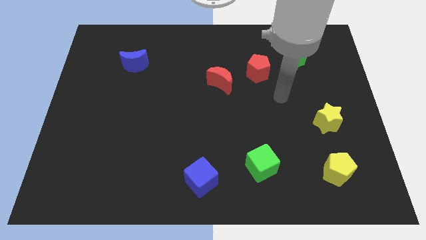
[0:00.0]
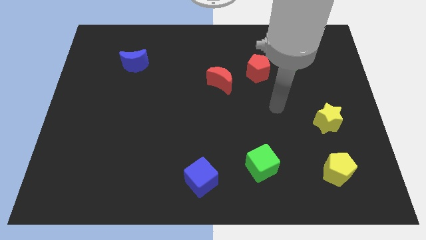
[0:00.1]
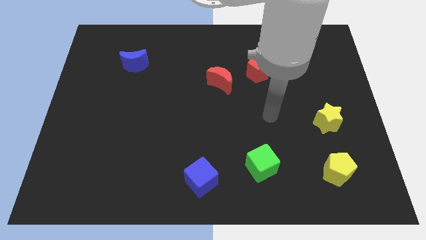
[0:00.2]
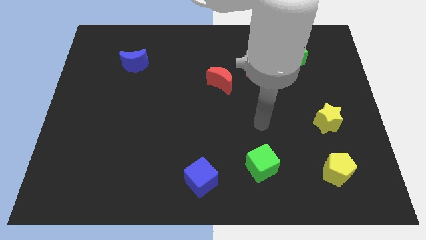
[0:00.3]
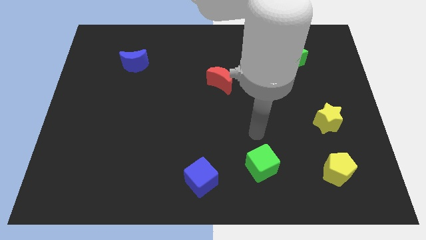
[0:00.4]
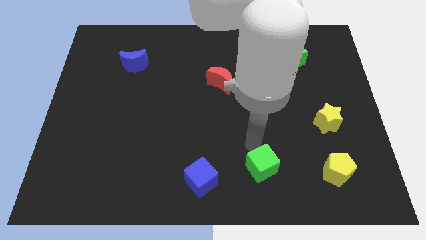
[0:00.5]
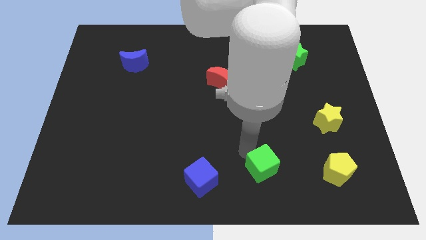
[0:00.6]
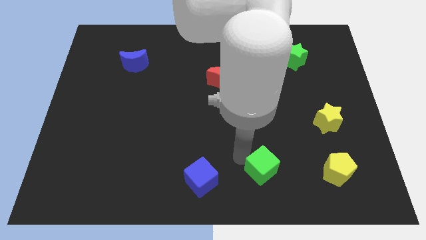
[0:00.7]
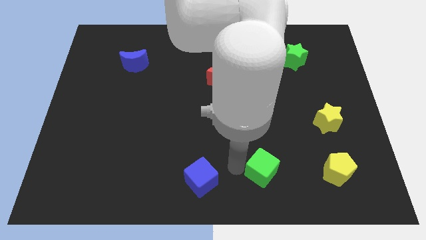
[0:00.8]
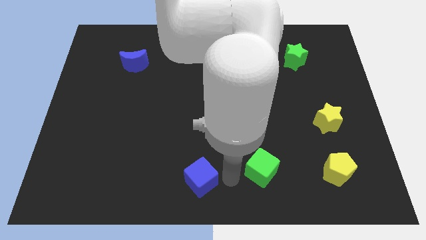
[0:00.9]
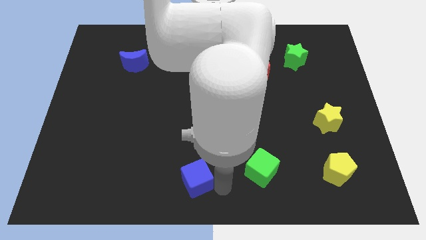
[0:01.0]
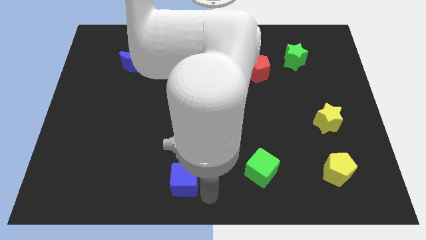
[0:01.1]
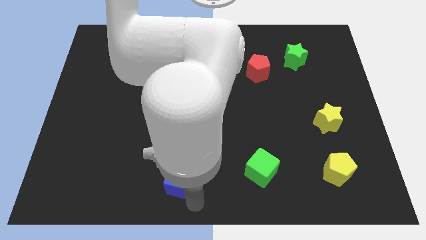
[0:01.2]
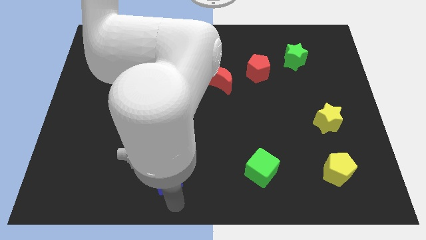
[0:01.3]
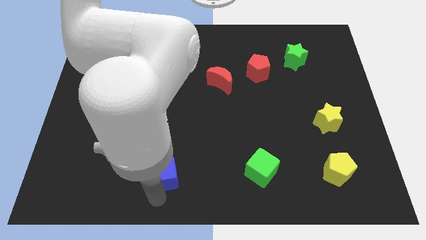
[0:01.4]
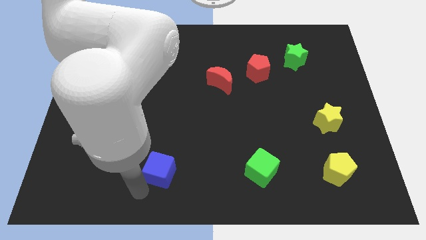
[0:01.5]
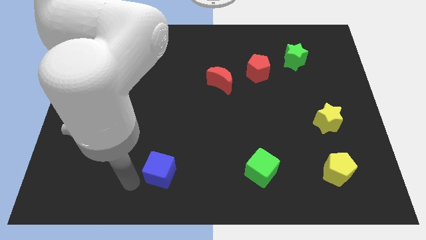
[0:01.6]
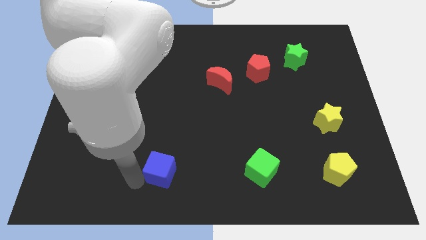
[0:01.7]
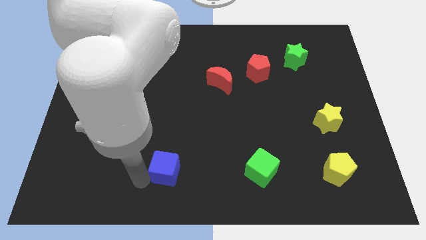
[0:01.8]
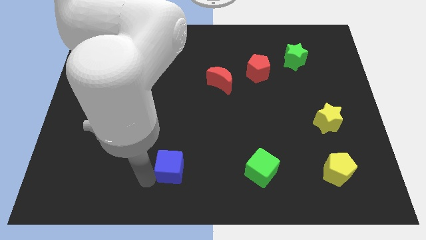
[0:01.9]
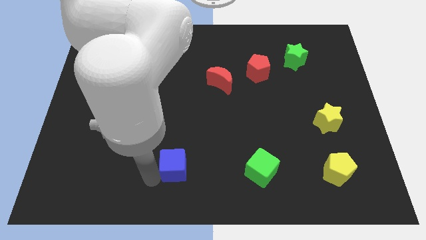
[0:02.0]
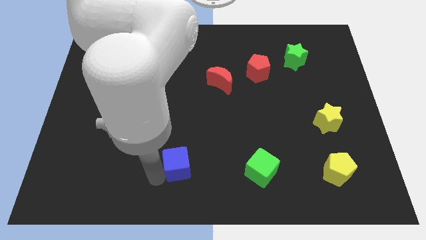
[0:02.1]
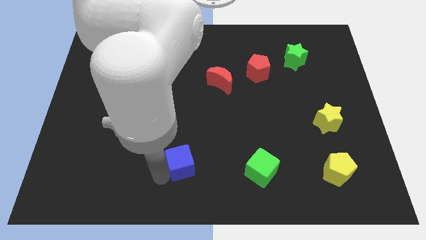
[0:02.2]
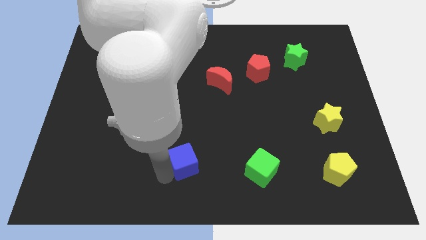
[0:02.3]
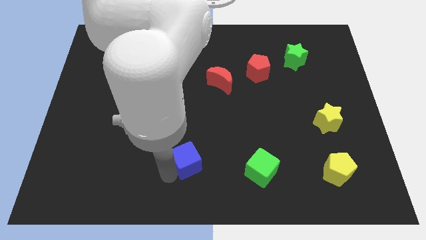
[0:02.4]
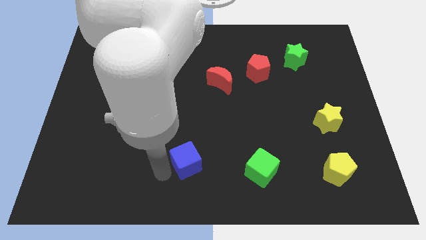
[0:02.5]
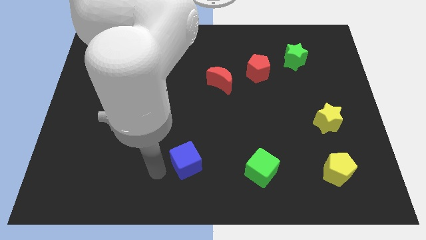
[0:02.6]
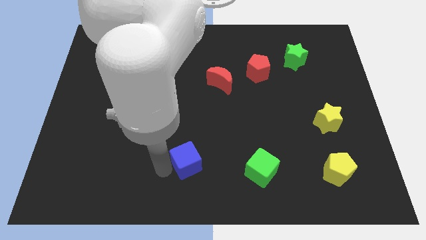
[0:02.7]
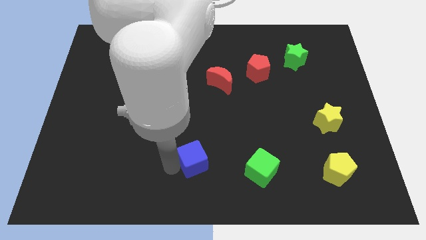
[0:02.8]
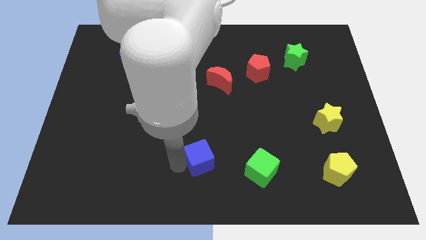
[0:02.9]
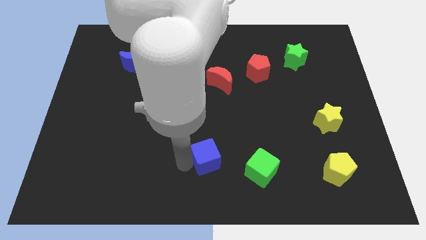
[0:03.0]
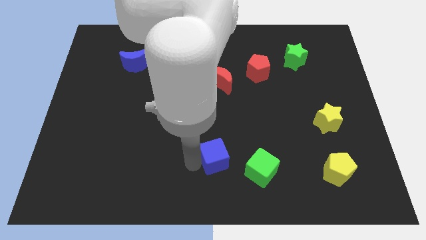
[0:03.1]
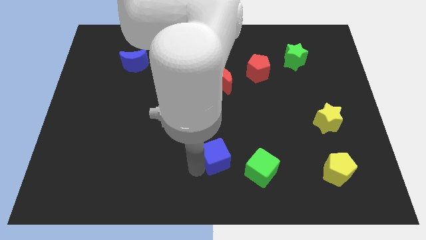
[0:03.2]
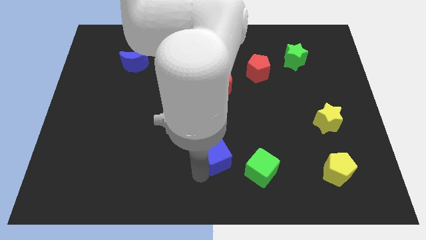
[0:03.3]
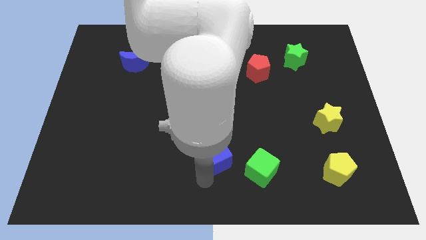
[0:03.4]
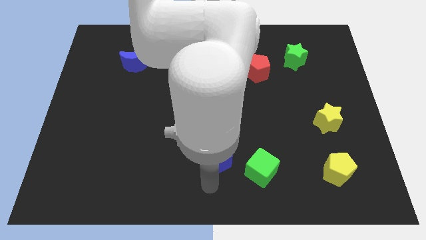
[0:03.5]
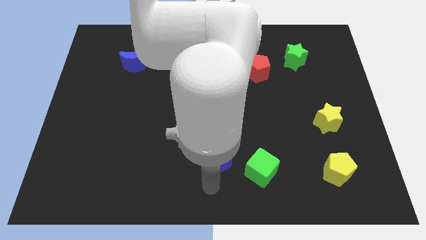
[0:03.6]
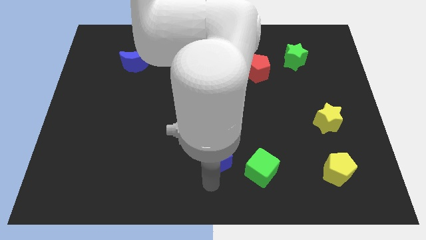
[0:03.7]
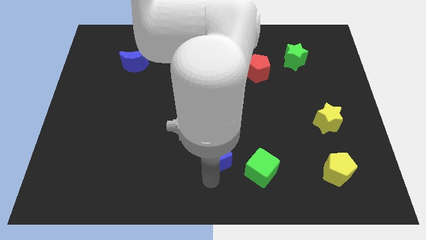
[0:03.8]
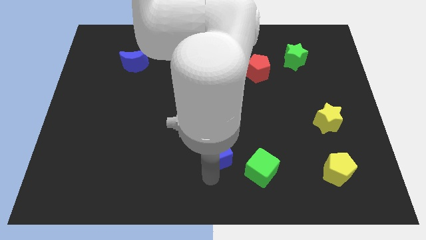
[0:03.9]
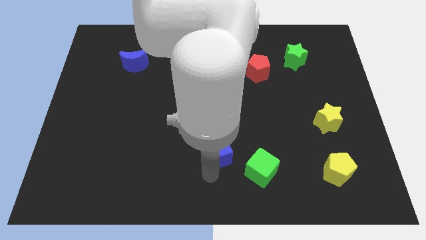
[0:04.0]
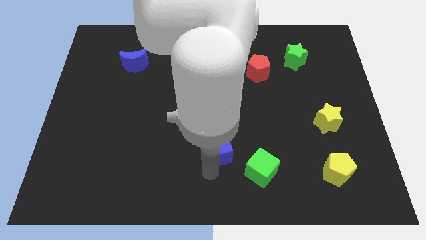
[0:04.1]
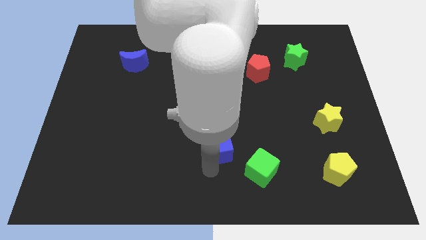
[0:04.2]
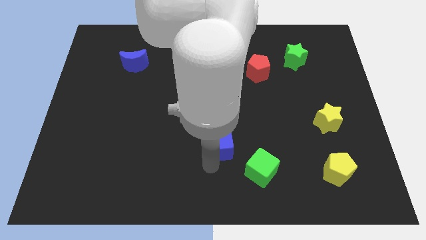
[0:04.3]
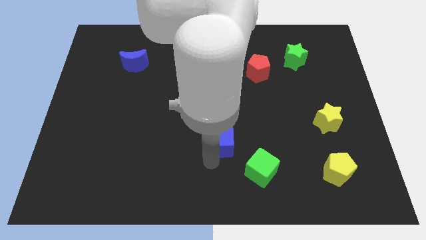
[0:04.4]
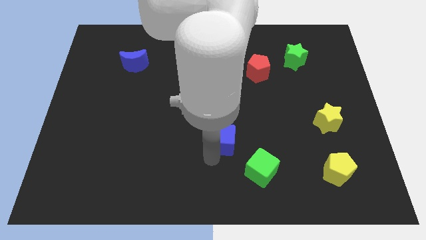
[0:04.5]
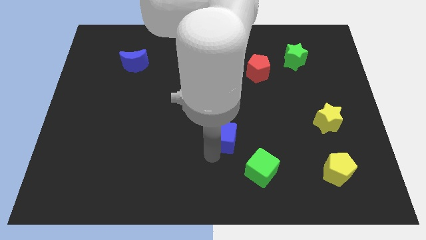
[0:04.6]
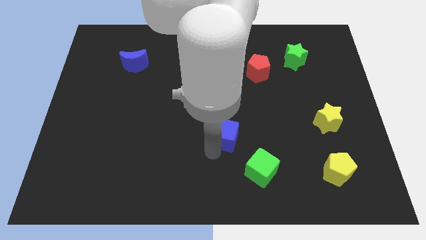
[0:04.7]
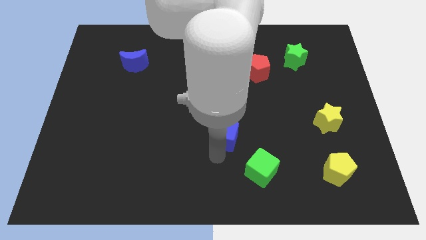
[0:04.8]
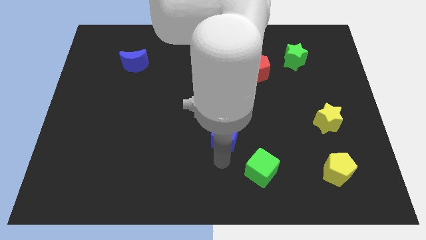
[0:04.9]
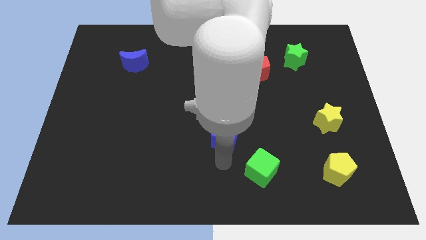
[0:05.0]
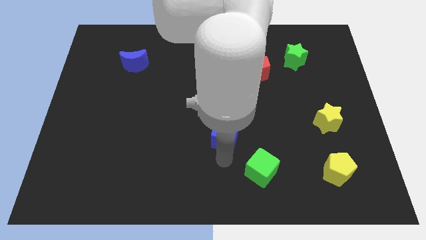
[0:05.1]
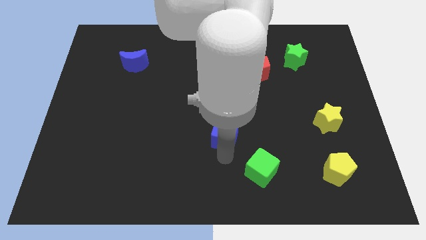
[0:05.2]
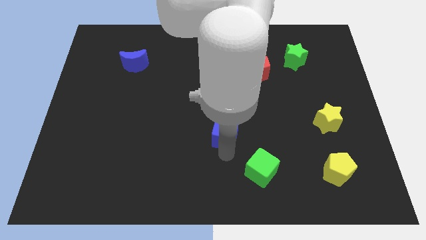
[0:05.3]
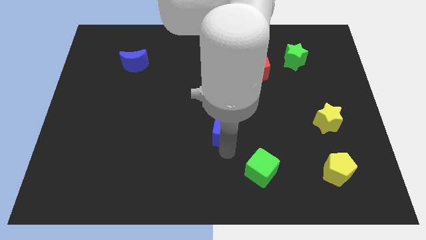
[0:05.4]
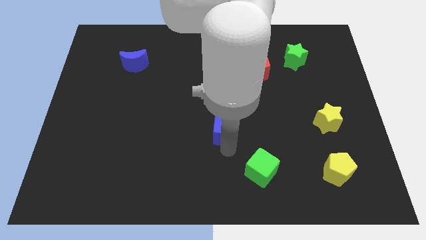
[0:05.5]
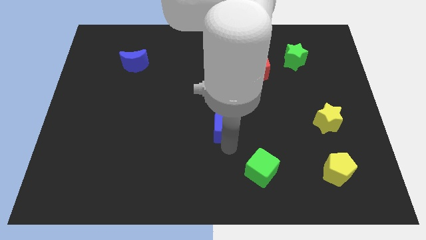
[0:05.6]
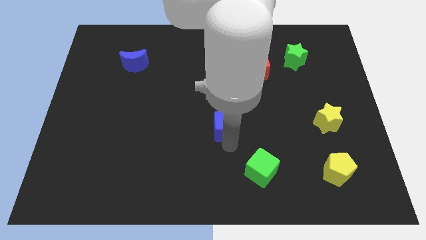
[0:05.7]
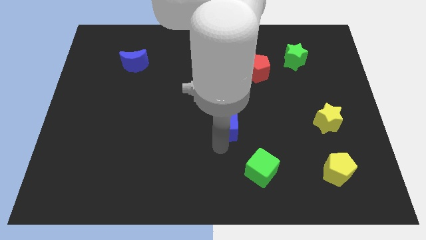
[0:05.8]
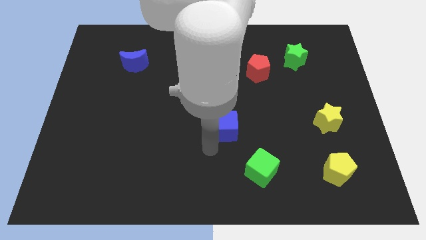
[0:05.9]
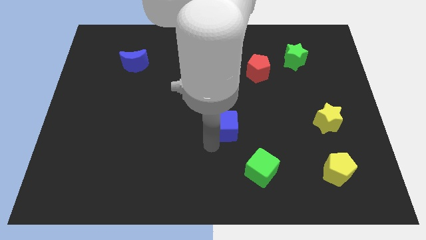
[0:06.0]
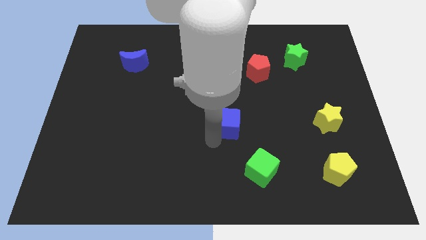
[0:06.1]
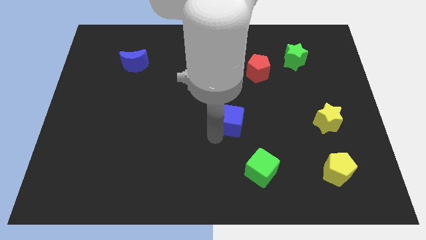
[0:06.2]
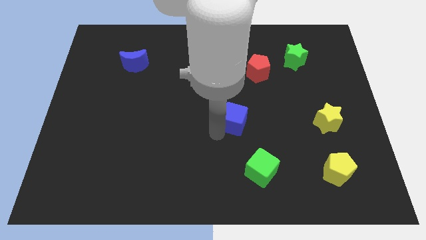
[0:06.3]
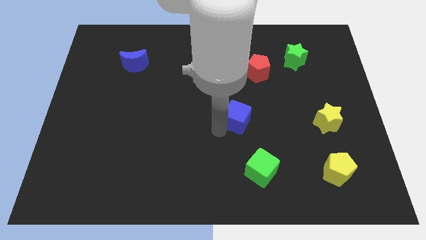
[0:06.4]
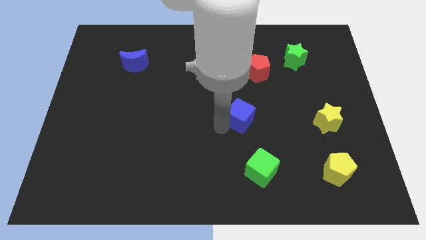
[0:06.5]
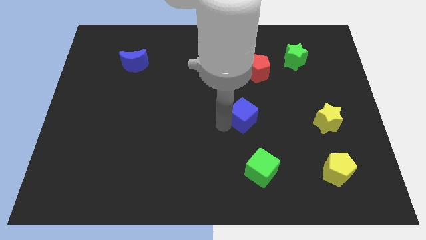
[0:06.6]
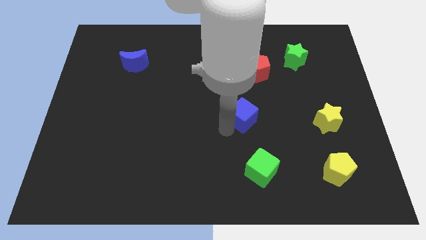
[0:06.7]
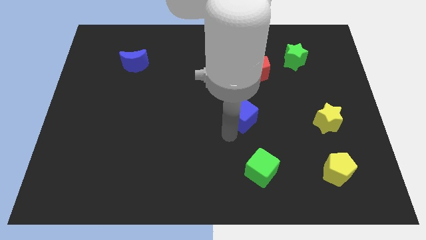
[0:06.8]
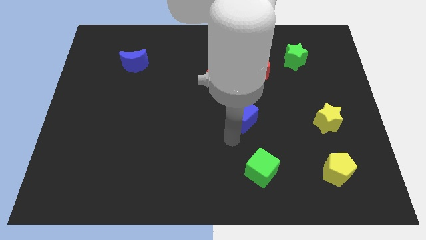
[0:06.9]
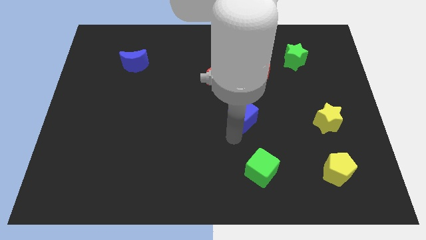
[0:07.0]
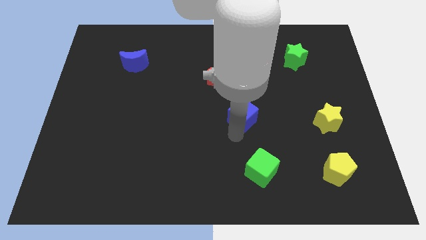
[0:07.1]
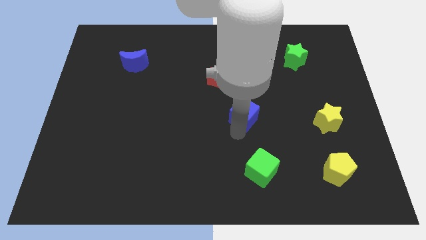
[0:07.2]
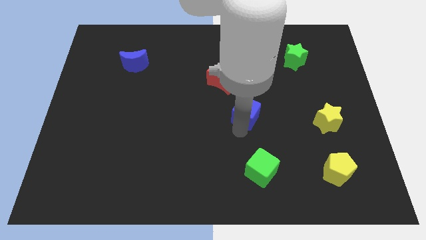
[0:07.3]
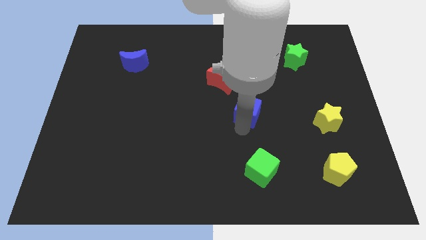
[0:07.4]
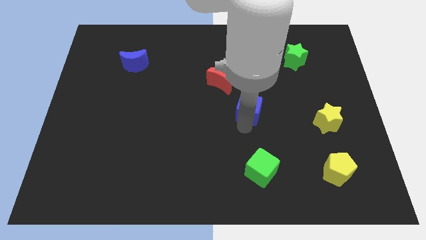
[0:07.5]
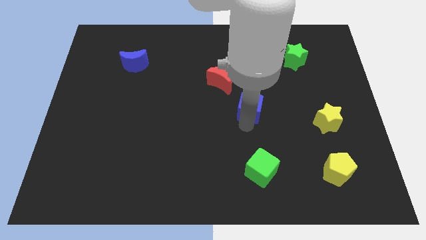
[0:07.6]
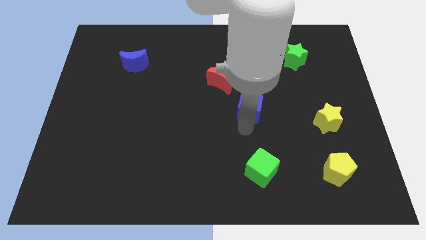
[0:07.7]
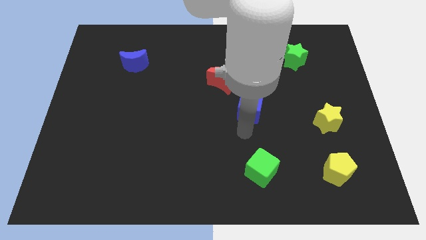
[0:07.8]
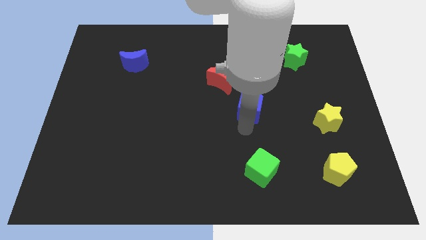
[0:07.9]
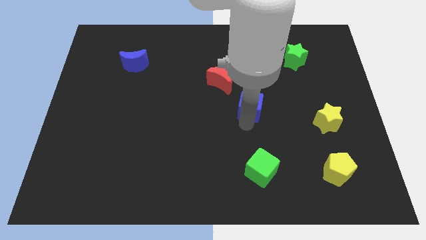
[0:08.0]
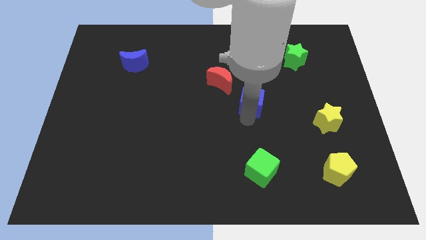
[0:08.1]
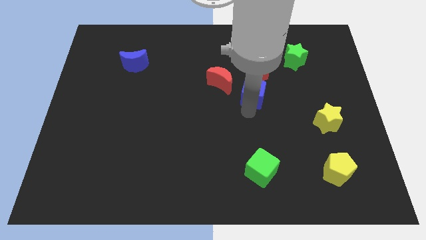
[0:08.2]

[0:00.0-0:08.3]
slide the blue cube to the right side of the red moon
